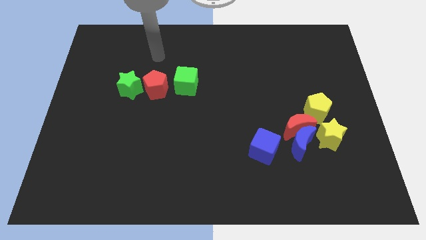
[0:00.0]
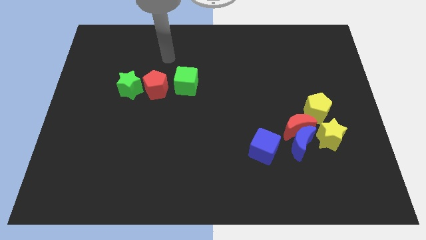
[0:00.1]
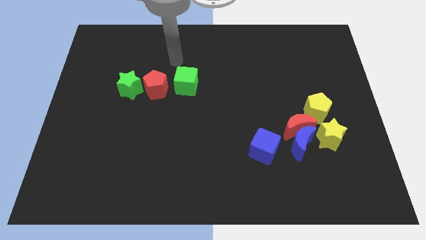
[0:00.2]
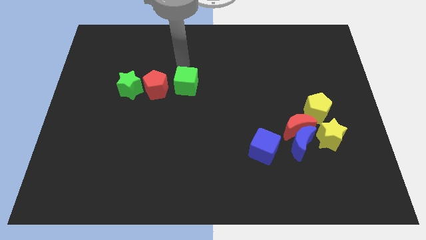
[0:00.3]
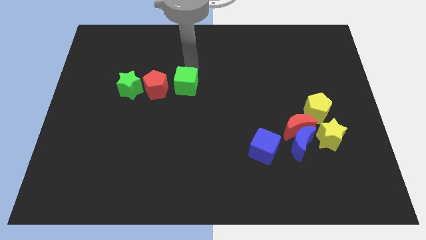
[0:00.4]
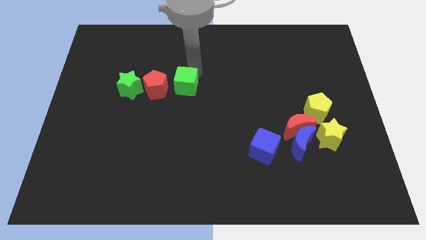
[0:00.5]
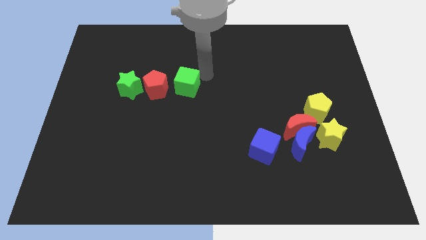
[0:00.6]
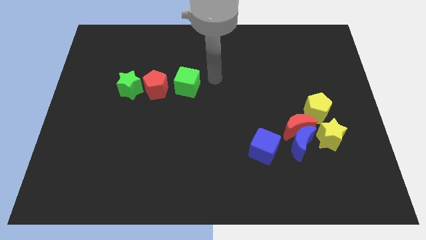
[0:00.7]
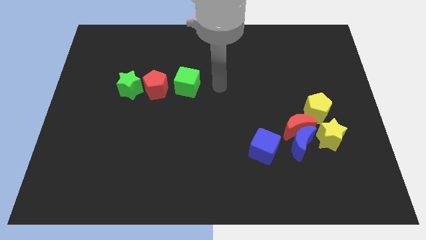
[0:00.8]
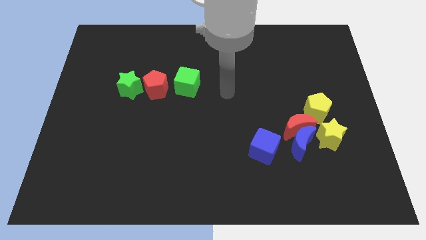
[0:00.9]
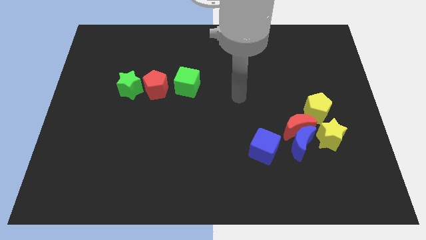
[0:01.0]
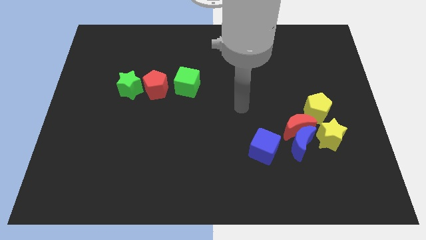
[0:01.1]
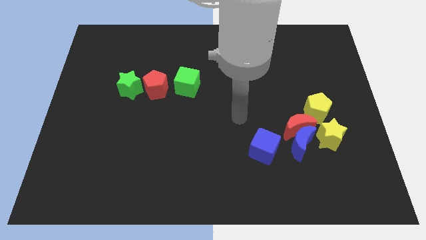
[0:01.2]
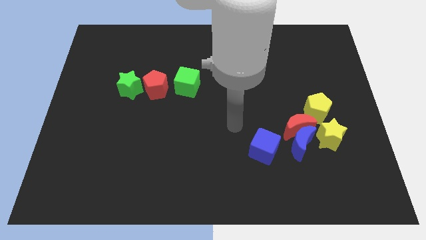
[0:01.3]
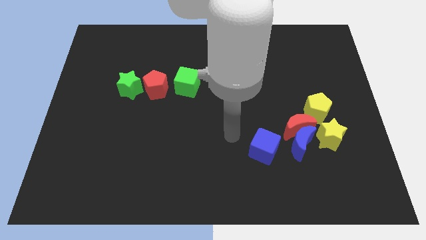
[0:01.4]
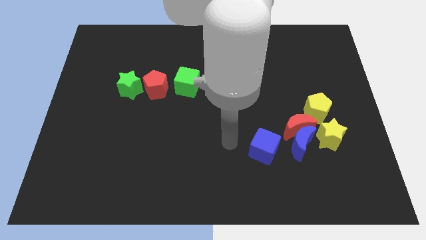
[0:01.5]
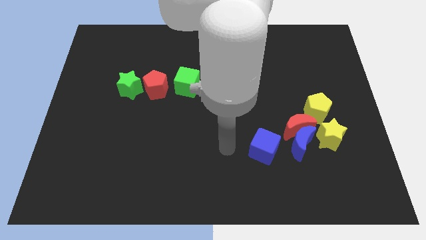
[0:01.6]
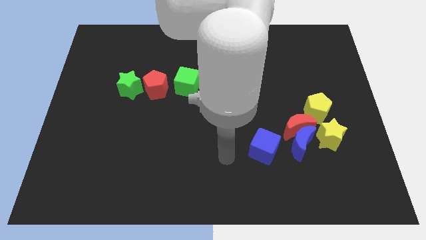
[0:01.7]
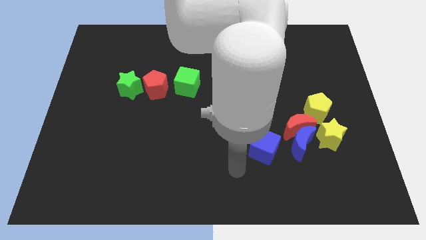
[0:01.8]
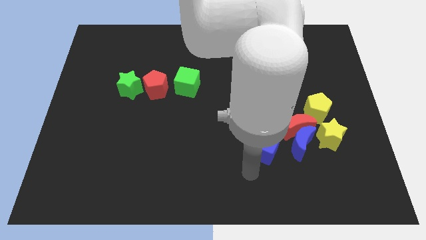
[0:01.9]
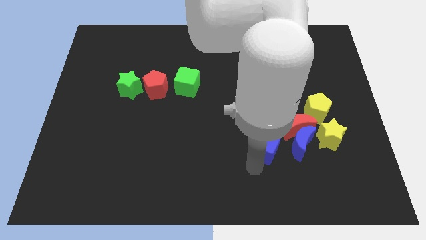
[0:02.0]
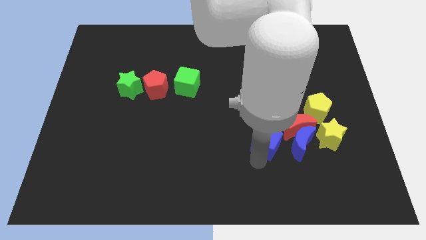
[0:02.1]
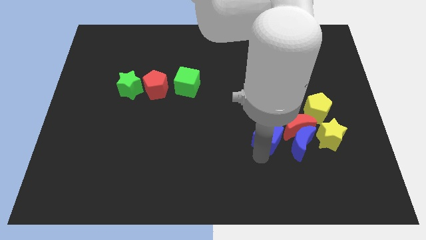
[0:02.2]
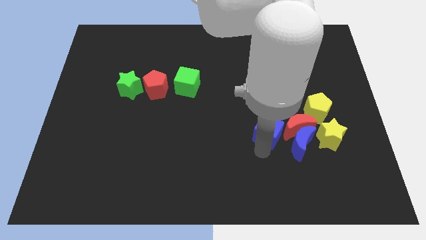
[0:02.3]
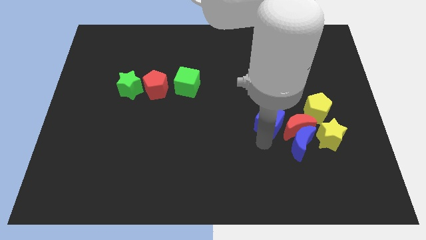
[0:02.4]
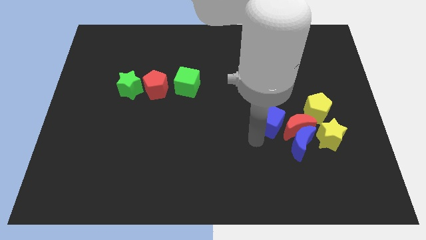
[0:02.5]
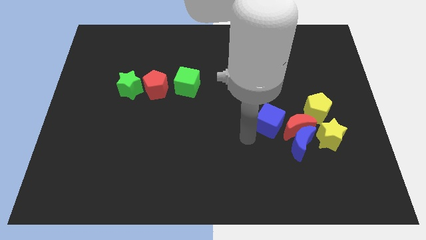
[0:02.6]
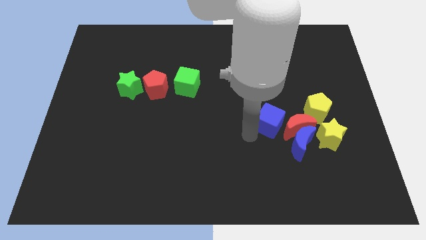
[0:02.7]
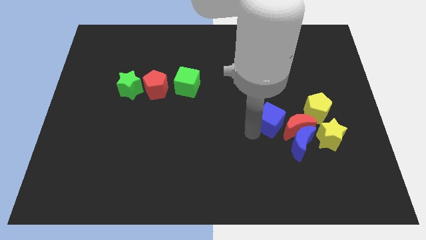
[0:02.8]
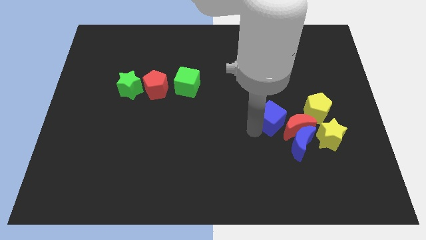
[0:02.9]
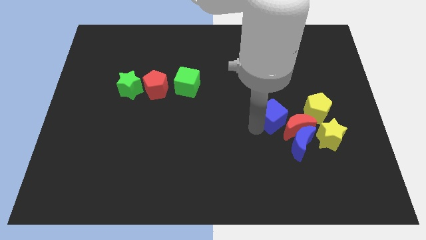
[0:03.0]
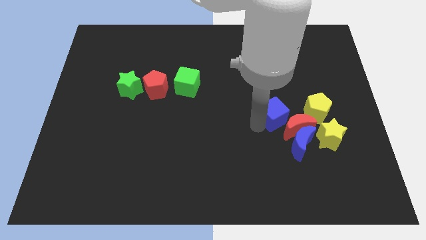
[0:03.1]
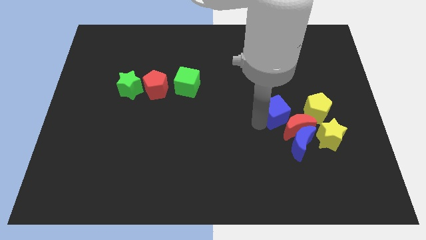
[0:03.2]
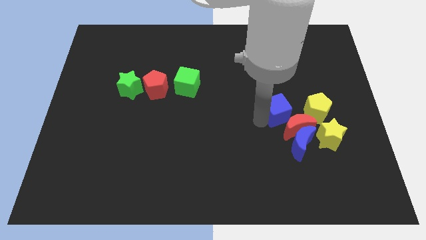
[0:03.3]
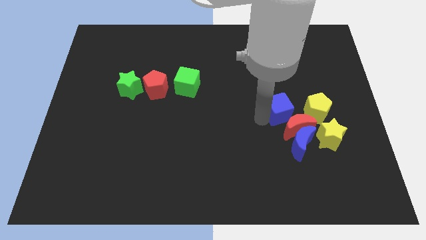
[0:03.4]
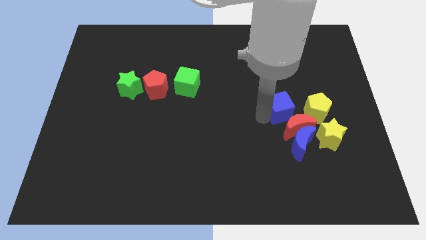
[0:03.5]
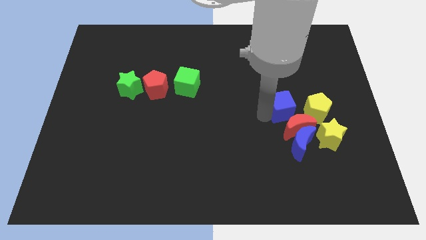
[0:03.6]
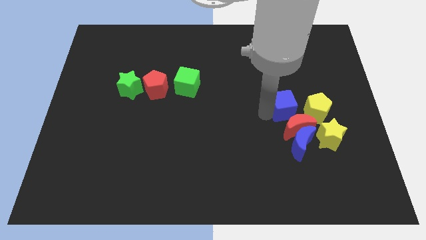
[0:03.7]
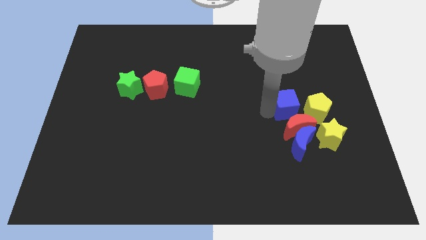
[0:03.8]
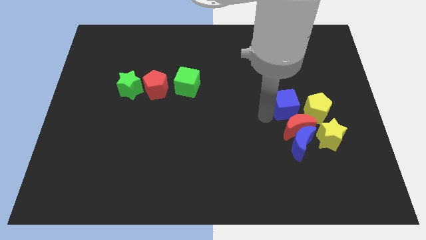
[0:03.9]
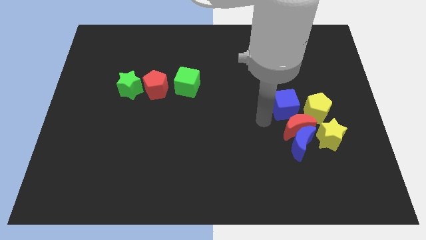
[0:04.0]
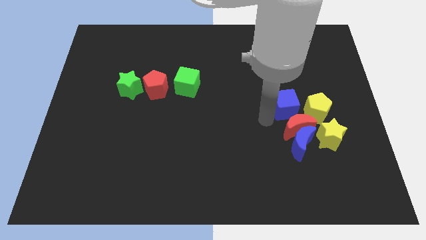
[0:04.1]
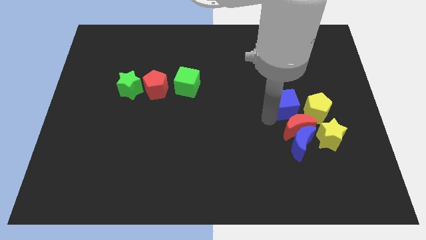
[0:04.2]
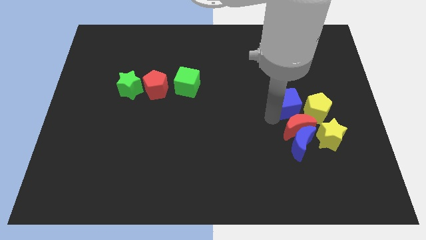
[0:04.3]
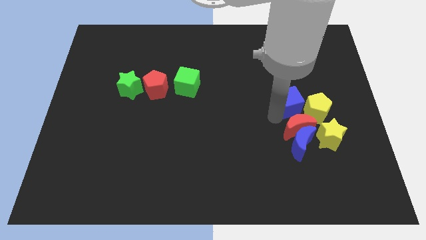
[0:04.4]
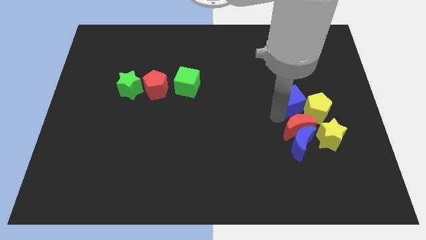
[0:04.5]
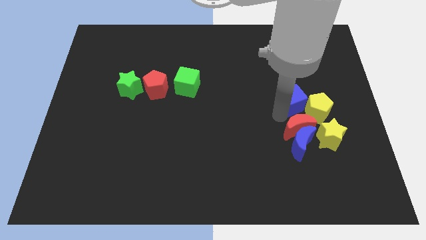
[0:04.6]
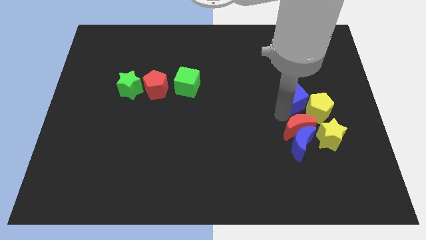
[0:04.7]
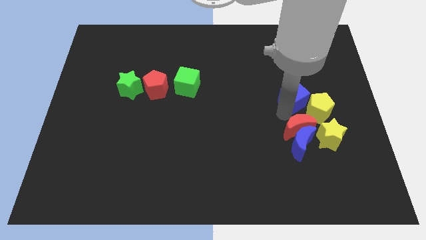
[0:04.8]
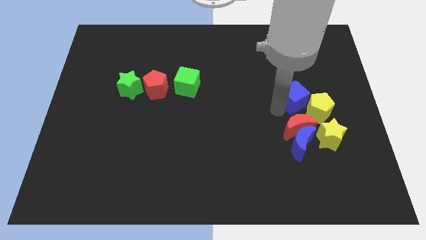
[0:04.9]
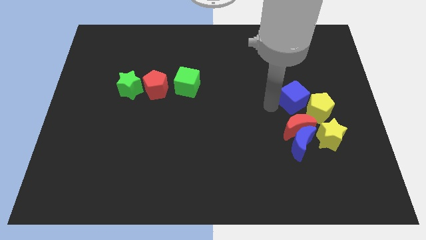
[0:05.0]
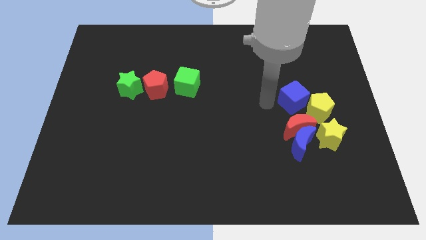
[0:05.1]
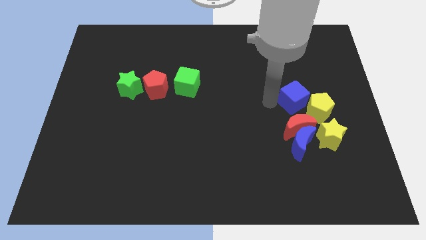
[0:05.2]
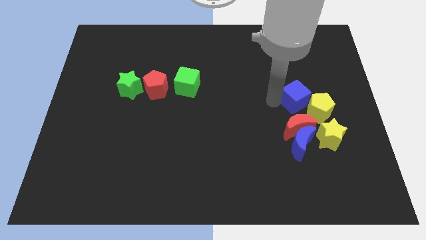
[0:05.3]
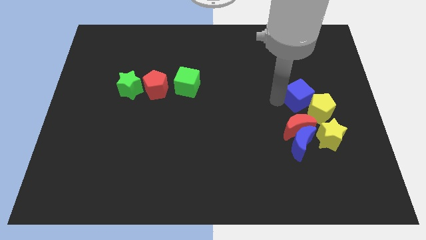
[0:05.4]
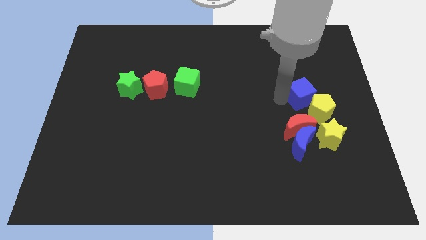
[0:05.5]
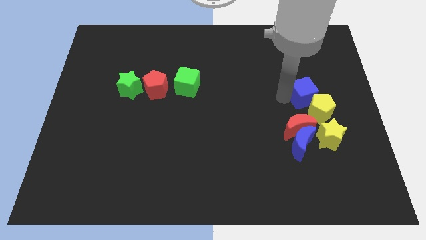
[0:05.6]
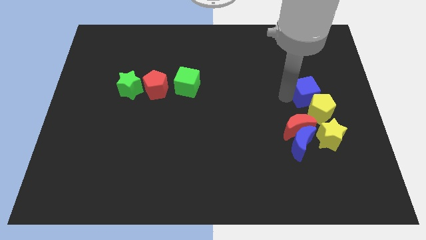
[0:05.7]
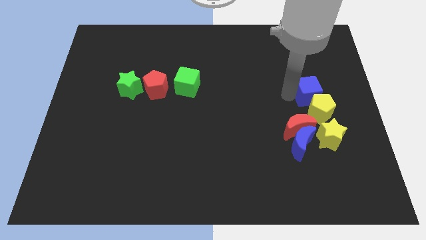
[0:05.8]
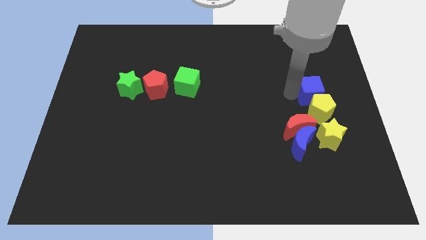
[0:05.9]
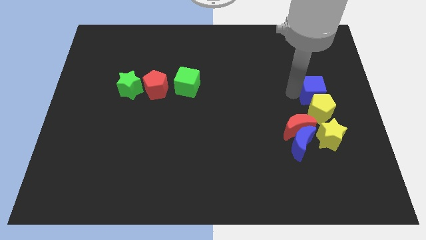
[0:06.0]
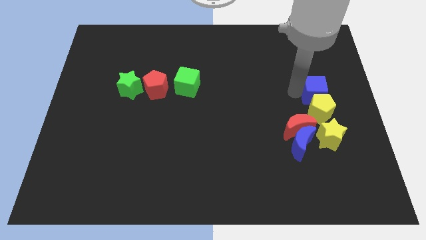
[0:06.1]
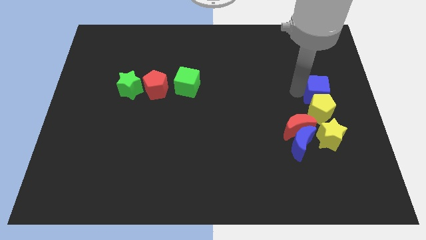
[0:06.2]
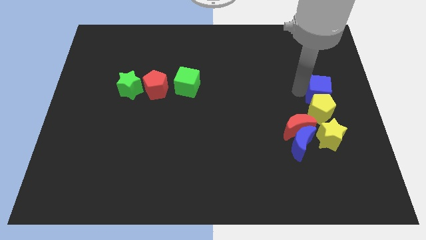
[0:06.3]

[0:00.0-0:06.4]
put the blue cube to the right side of the board

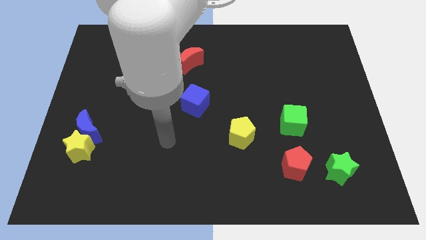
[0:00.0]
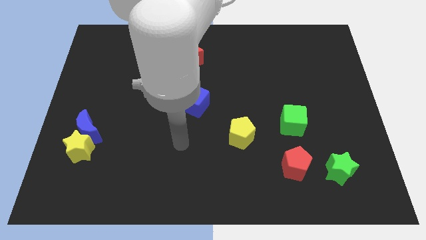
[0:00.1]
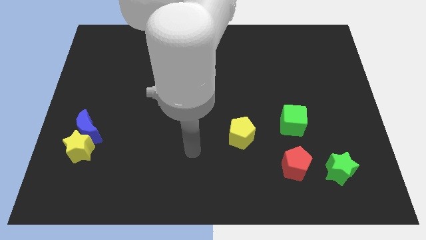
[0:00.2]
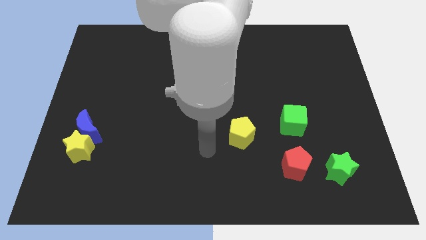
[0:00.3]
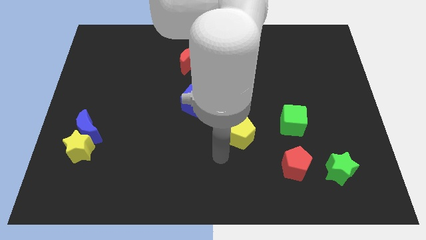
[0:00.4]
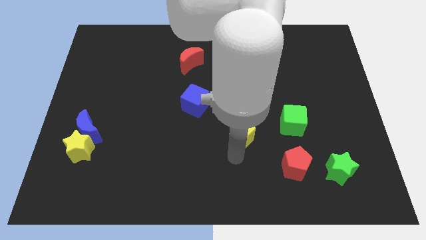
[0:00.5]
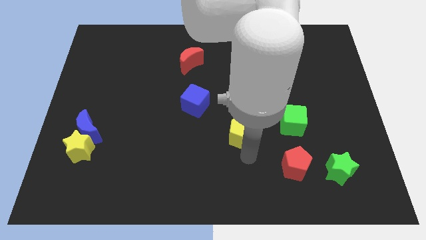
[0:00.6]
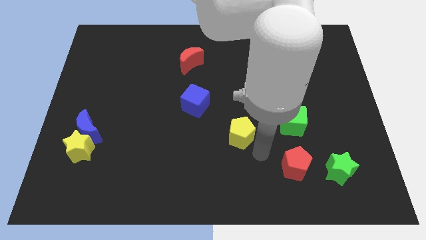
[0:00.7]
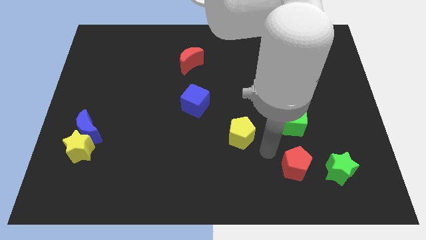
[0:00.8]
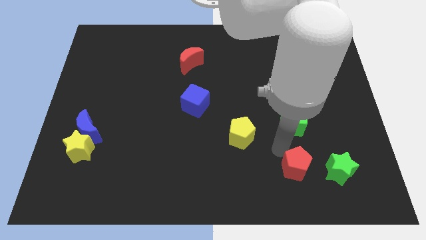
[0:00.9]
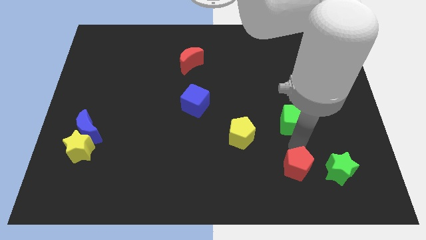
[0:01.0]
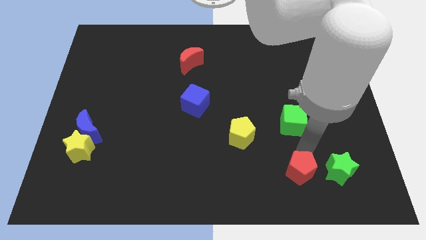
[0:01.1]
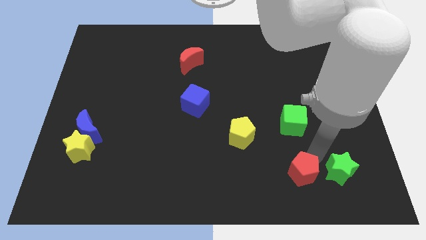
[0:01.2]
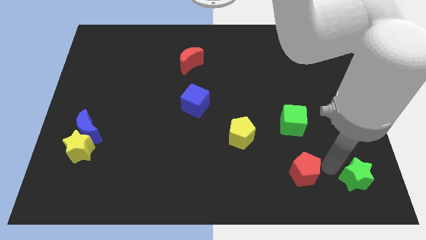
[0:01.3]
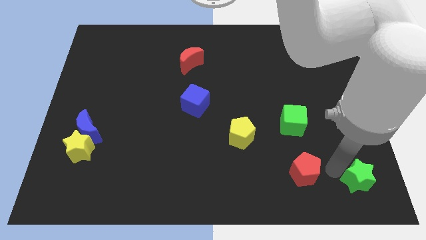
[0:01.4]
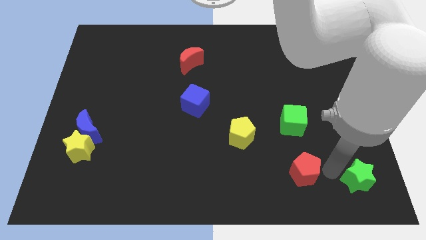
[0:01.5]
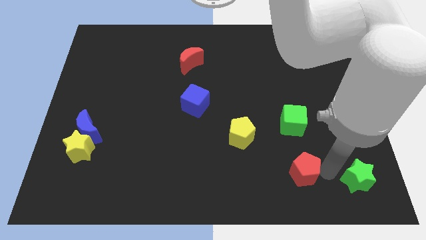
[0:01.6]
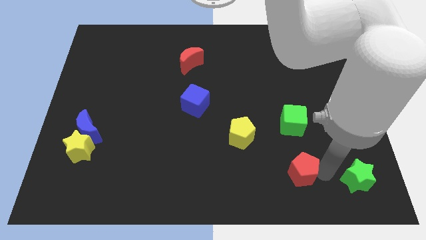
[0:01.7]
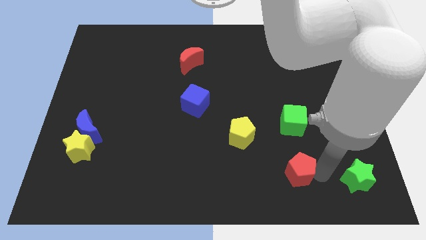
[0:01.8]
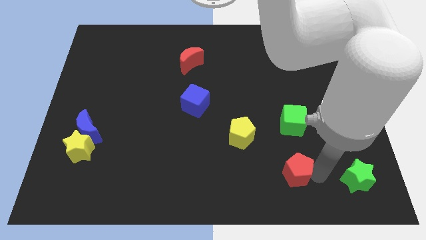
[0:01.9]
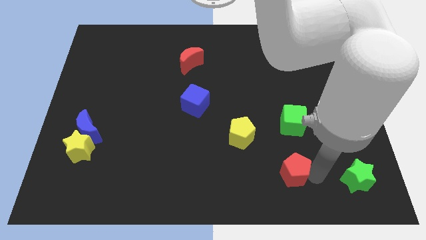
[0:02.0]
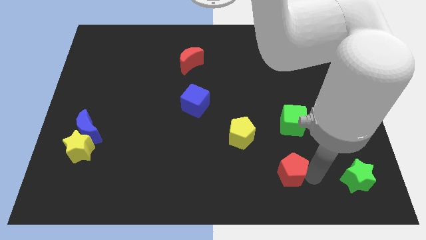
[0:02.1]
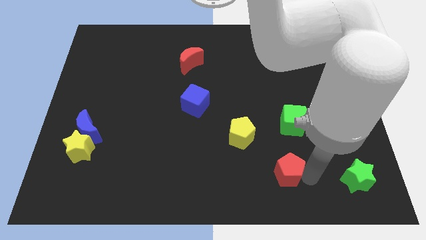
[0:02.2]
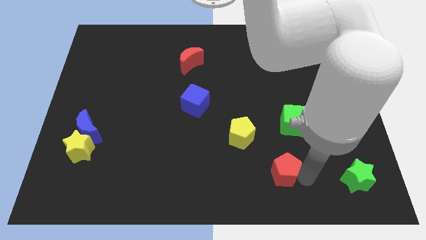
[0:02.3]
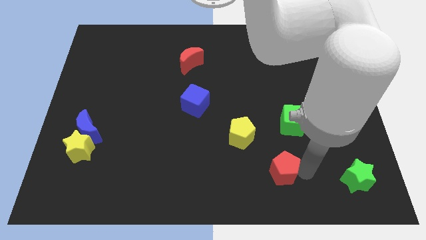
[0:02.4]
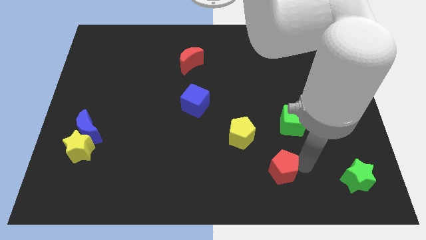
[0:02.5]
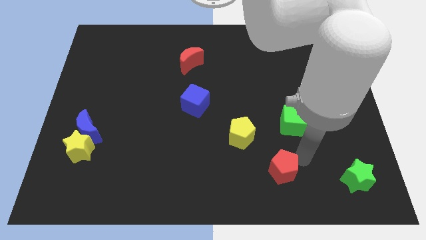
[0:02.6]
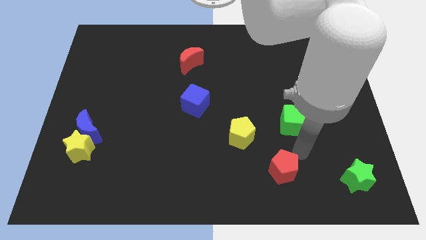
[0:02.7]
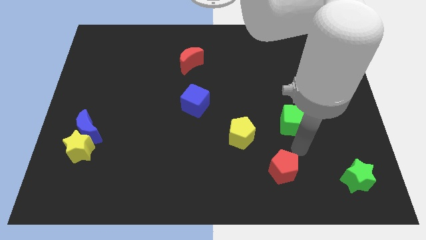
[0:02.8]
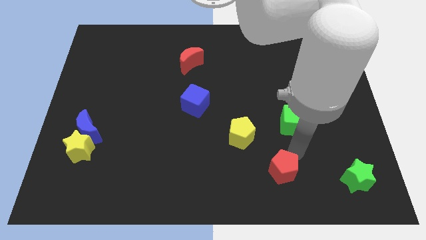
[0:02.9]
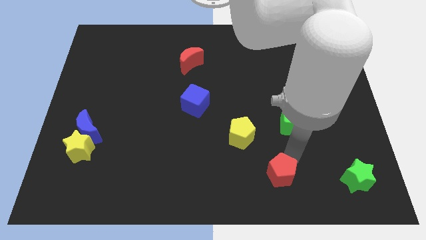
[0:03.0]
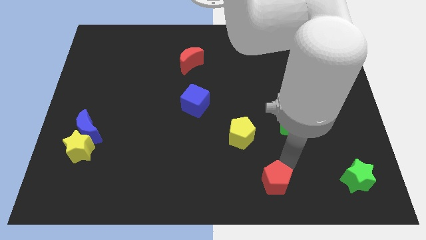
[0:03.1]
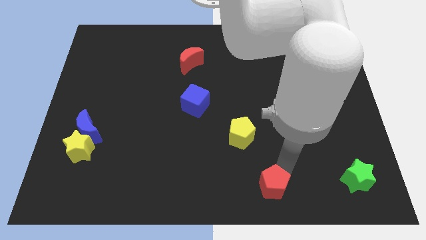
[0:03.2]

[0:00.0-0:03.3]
move the red pentagon to the bottom
